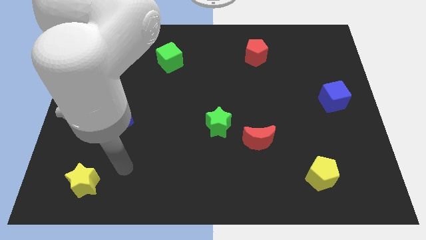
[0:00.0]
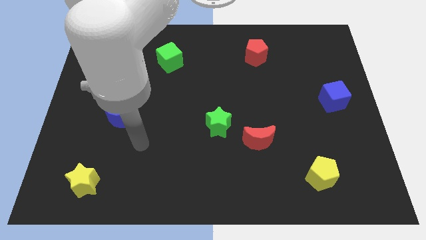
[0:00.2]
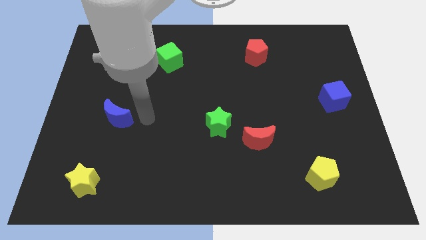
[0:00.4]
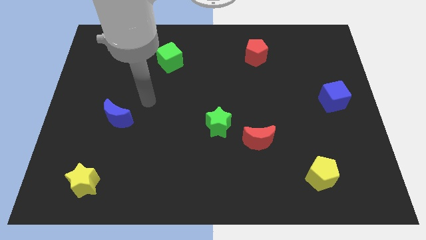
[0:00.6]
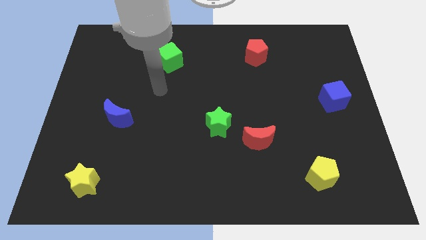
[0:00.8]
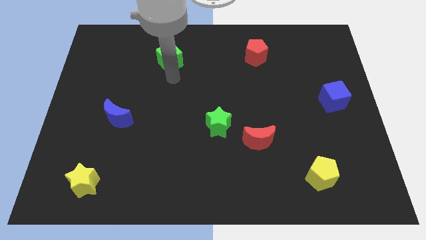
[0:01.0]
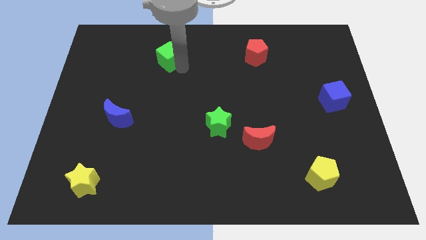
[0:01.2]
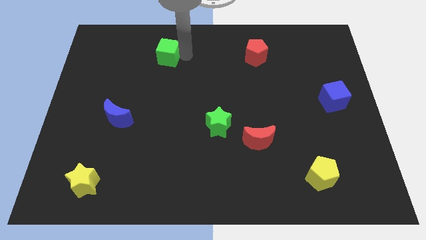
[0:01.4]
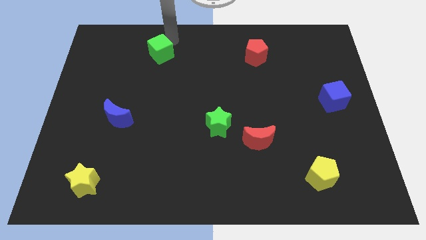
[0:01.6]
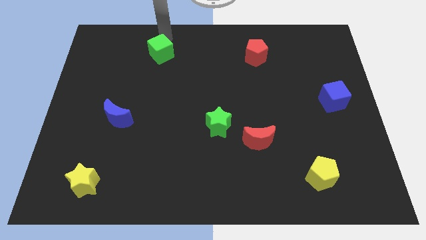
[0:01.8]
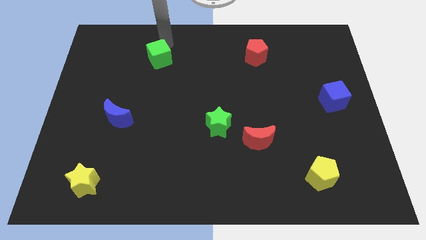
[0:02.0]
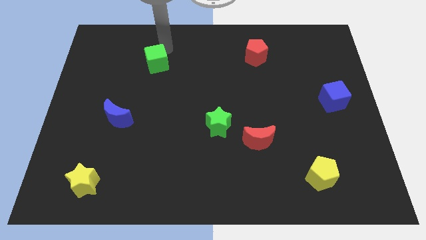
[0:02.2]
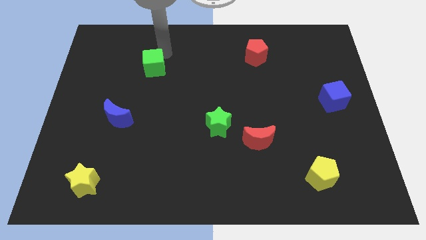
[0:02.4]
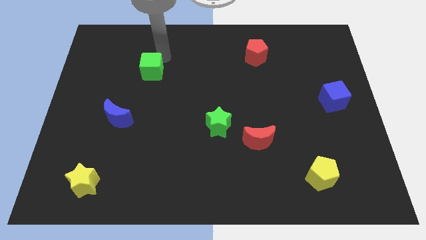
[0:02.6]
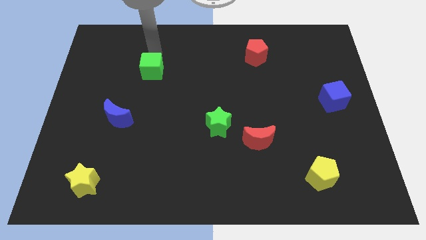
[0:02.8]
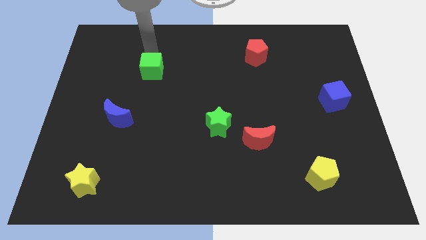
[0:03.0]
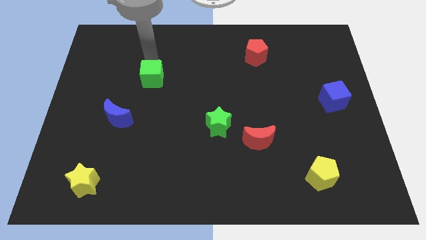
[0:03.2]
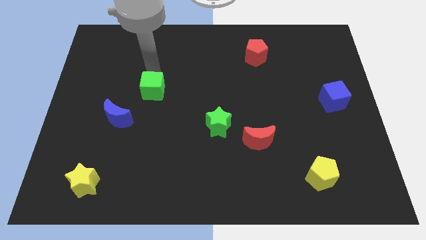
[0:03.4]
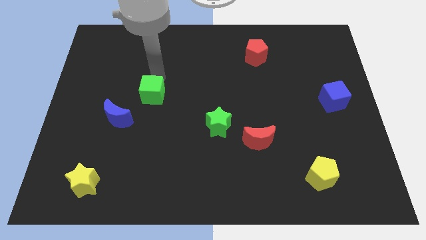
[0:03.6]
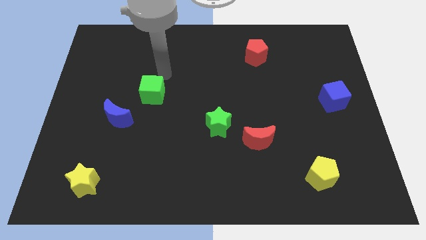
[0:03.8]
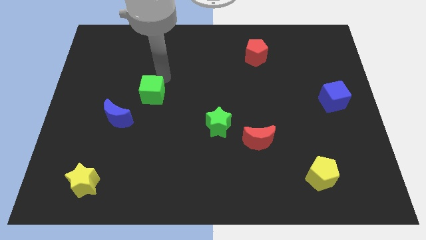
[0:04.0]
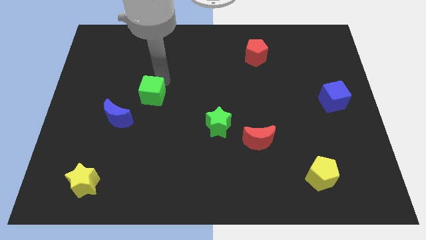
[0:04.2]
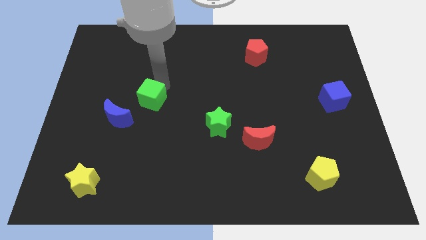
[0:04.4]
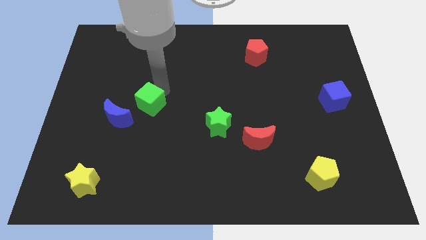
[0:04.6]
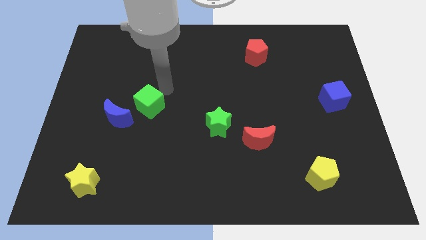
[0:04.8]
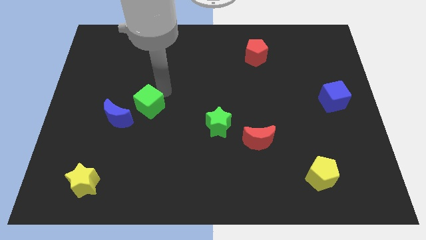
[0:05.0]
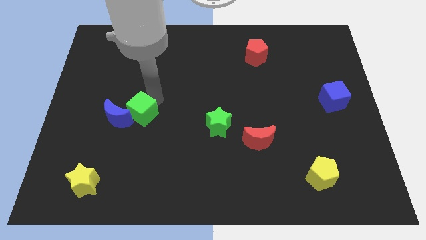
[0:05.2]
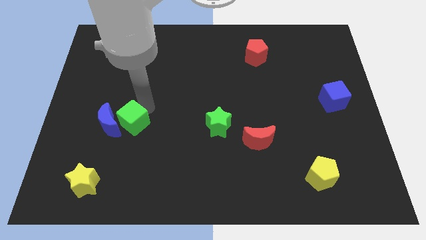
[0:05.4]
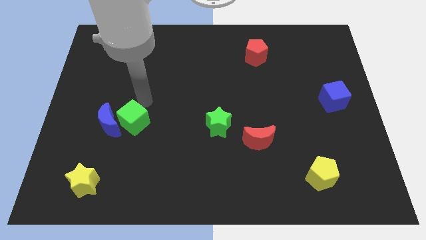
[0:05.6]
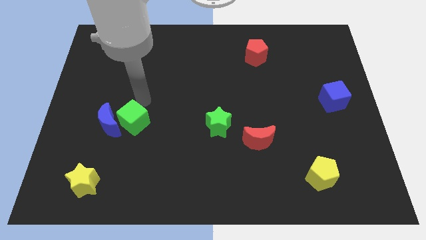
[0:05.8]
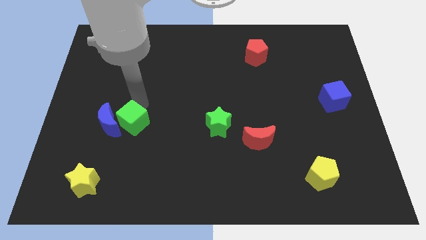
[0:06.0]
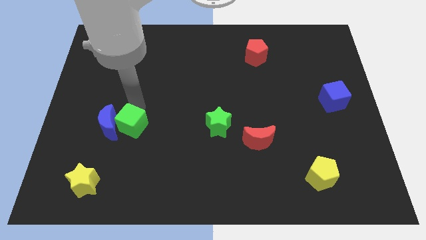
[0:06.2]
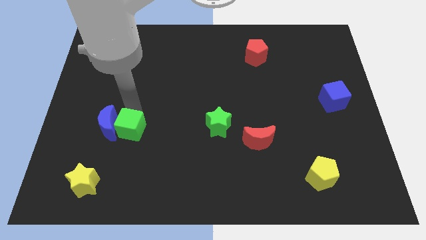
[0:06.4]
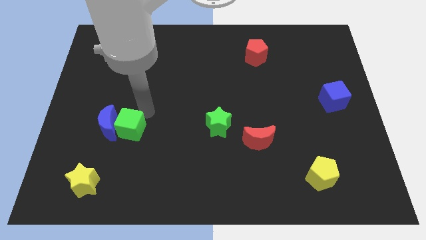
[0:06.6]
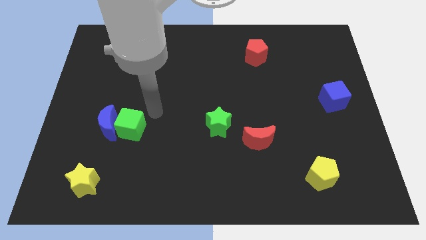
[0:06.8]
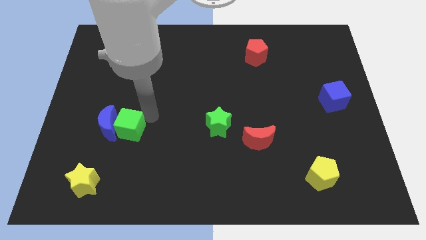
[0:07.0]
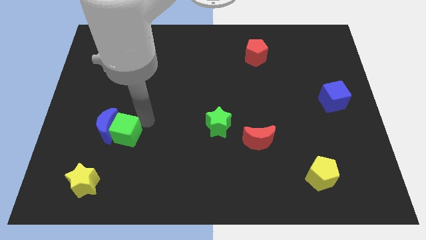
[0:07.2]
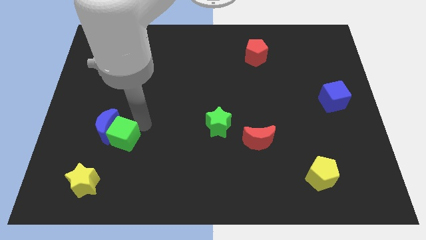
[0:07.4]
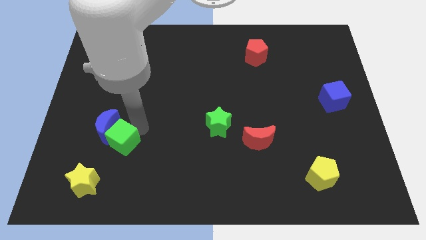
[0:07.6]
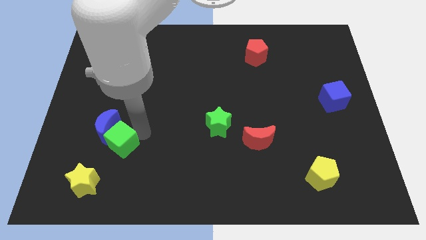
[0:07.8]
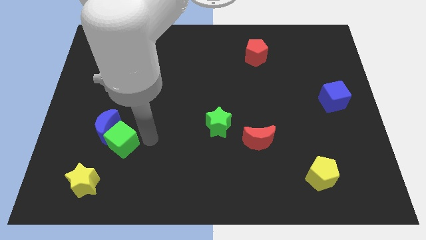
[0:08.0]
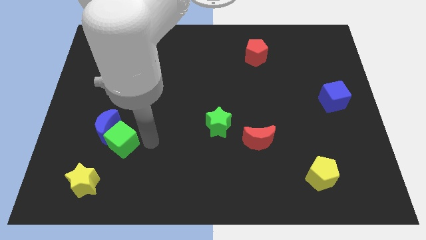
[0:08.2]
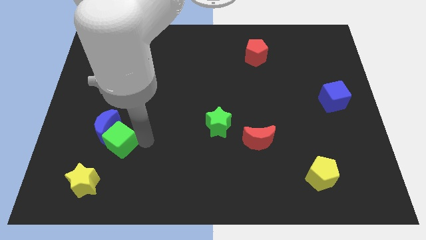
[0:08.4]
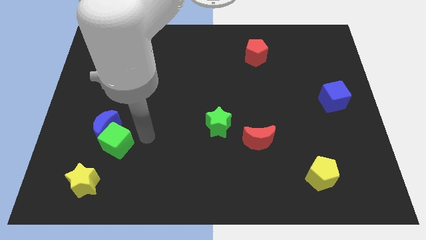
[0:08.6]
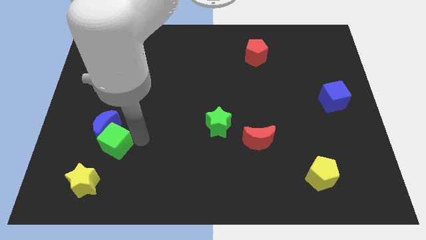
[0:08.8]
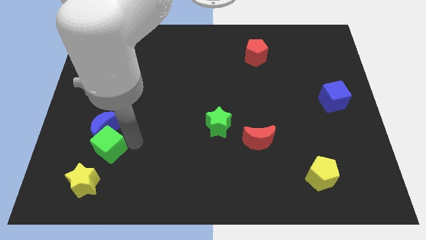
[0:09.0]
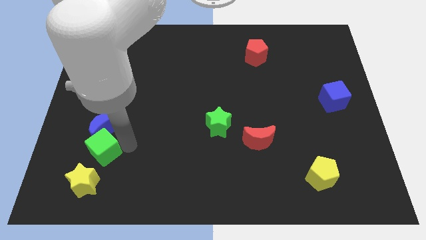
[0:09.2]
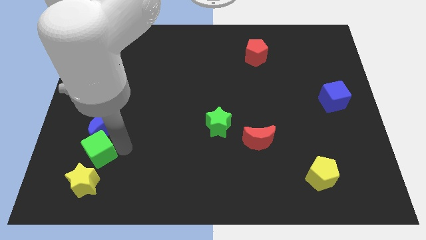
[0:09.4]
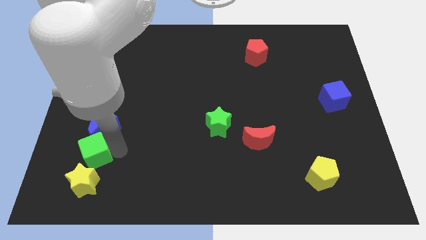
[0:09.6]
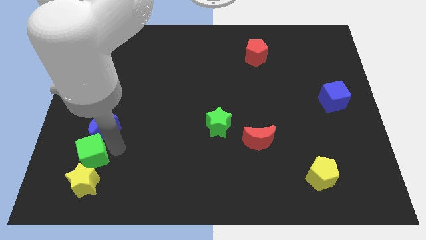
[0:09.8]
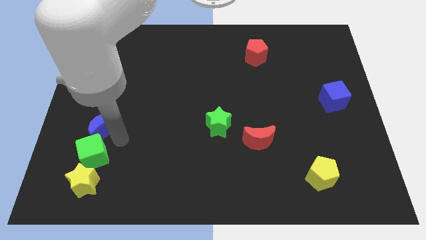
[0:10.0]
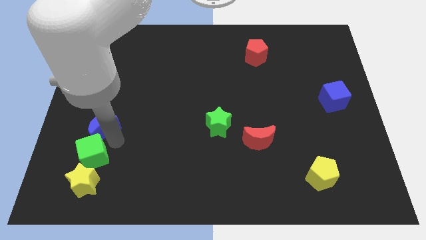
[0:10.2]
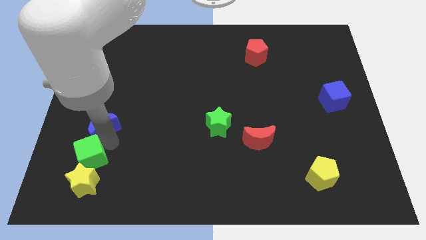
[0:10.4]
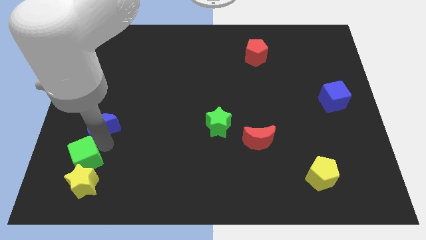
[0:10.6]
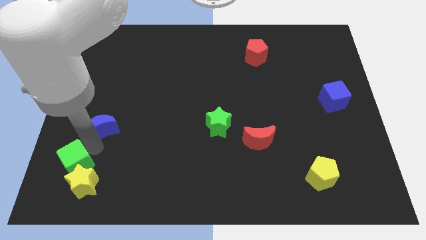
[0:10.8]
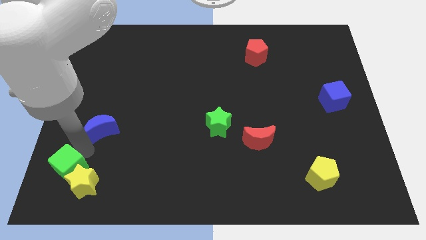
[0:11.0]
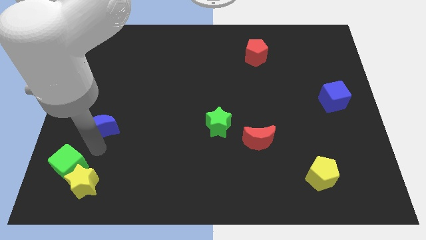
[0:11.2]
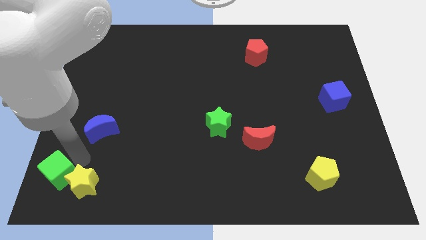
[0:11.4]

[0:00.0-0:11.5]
move the green cube to the lower left corner
